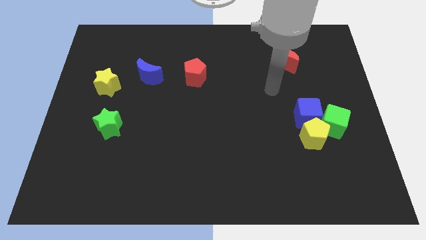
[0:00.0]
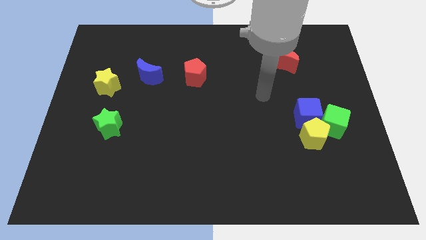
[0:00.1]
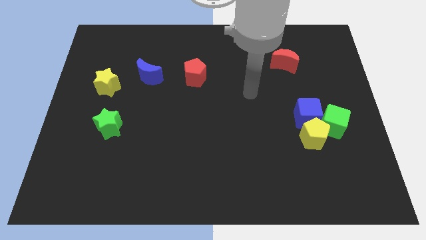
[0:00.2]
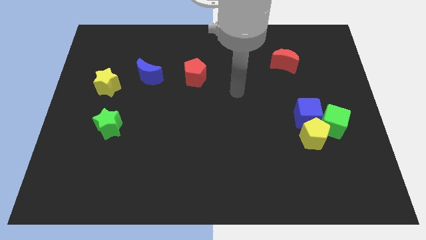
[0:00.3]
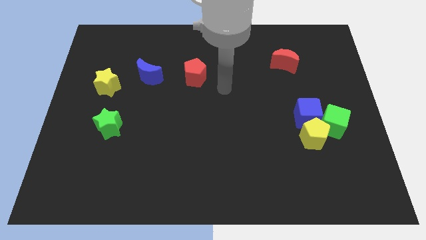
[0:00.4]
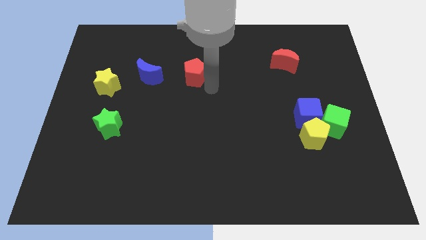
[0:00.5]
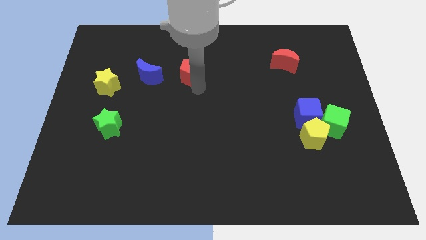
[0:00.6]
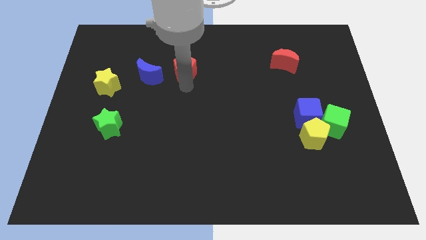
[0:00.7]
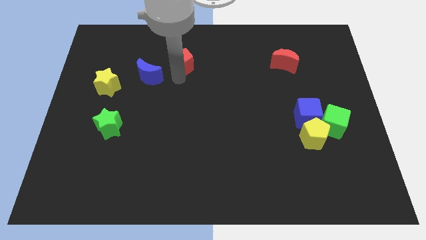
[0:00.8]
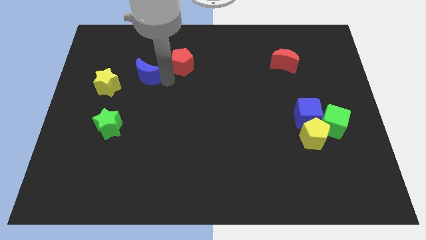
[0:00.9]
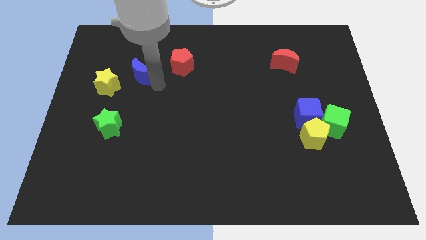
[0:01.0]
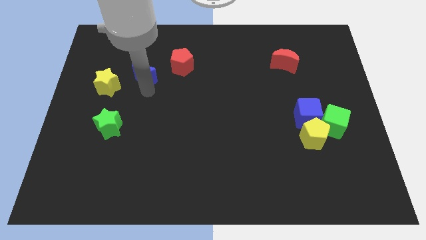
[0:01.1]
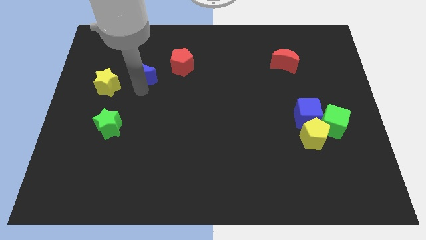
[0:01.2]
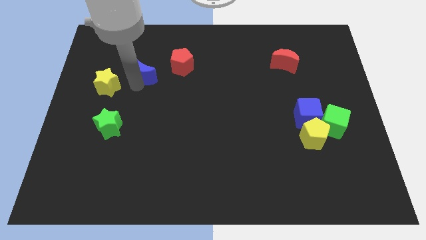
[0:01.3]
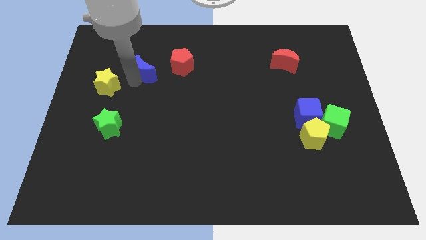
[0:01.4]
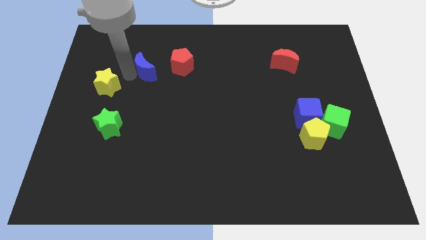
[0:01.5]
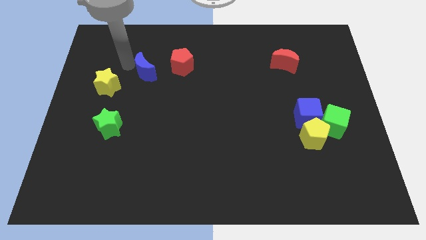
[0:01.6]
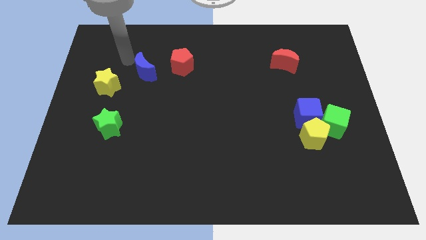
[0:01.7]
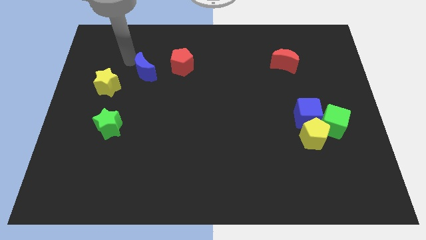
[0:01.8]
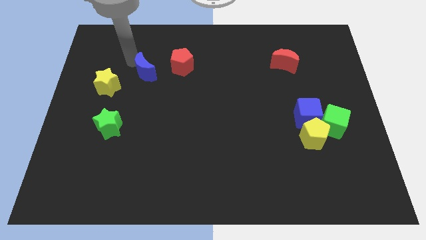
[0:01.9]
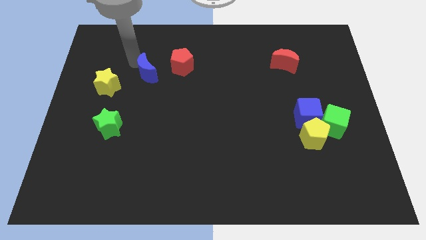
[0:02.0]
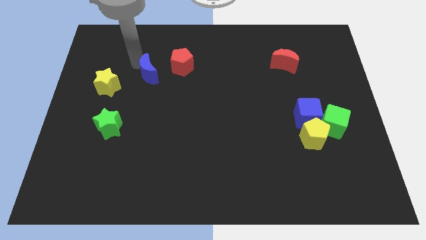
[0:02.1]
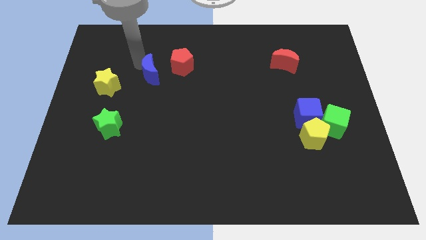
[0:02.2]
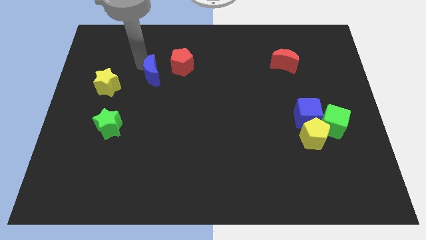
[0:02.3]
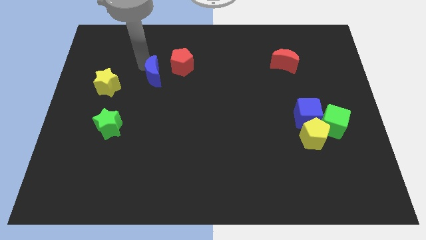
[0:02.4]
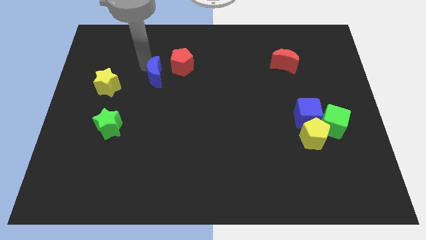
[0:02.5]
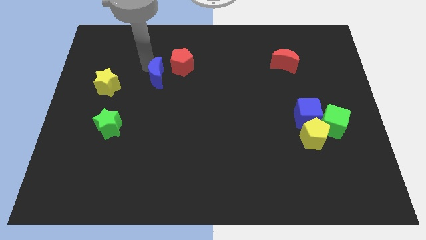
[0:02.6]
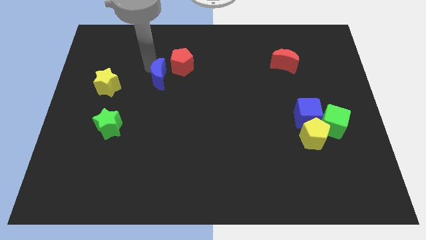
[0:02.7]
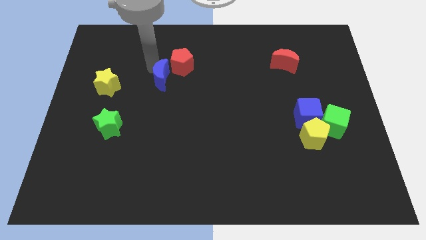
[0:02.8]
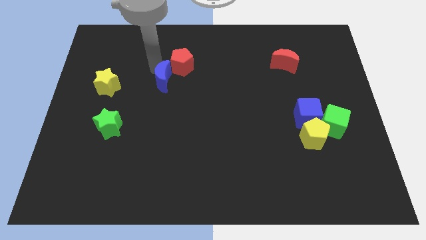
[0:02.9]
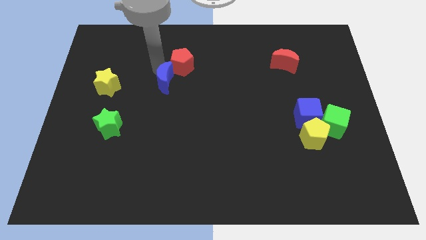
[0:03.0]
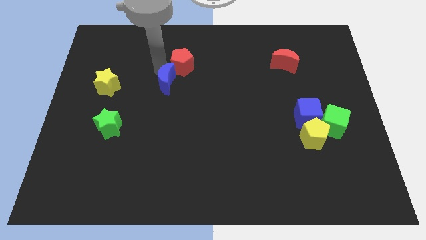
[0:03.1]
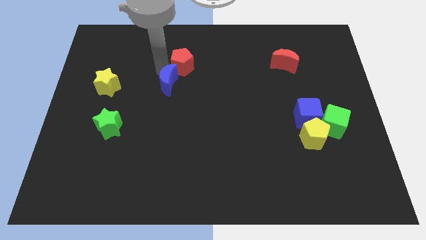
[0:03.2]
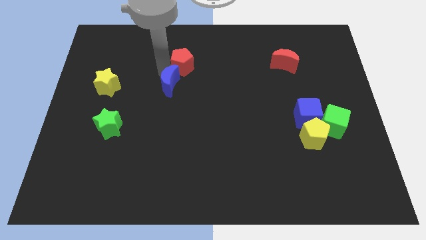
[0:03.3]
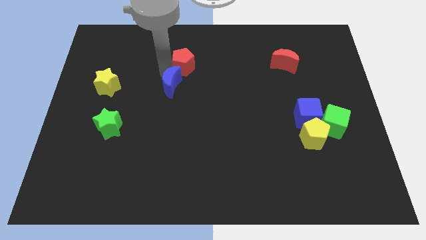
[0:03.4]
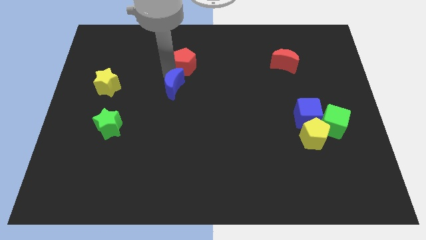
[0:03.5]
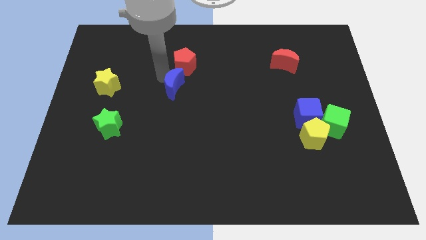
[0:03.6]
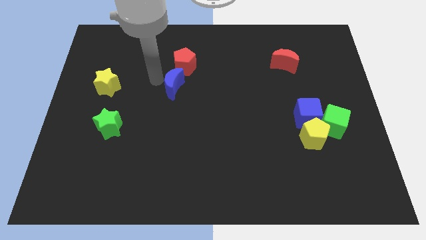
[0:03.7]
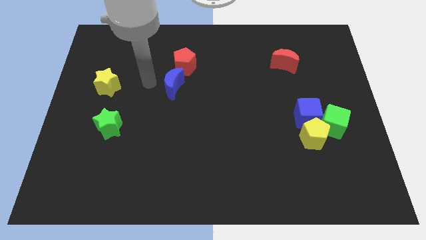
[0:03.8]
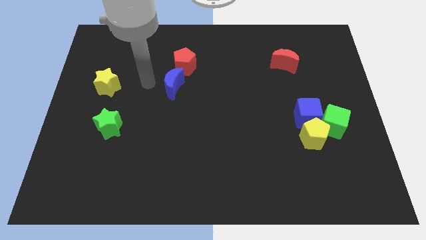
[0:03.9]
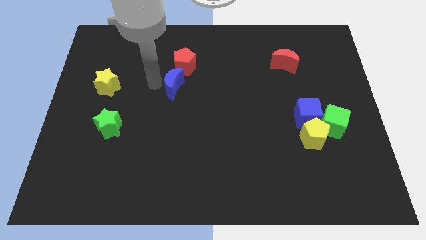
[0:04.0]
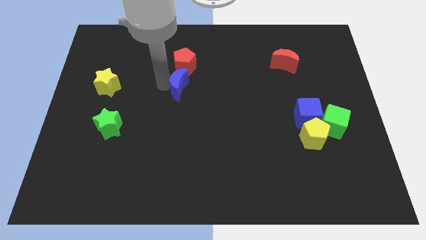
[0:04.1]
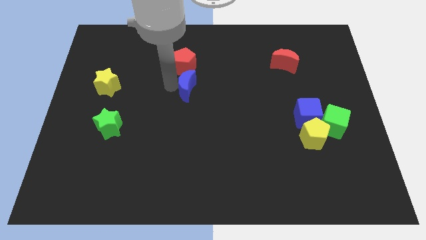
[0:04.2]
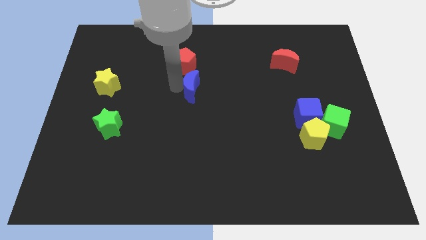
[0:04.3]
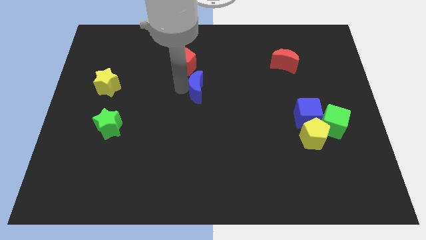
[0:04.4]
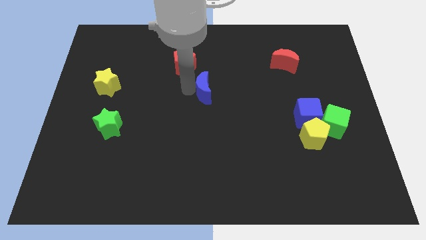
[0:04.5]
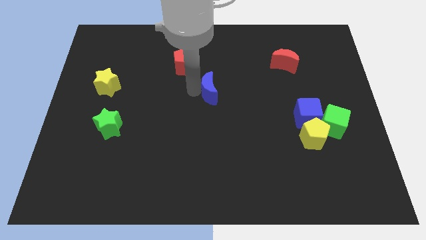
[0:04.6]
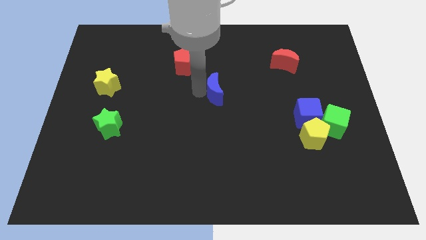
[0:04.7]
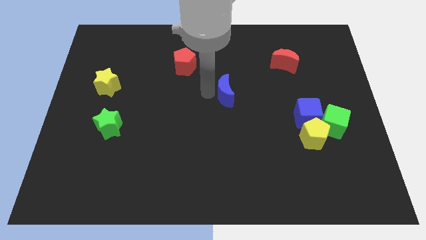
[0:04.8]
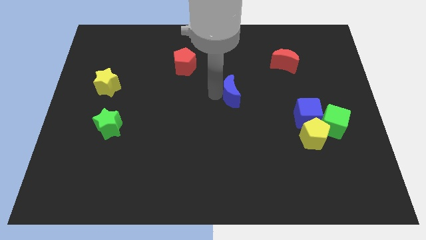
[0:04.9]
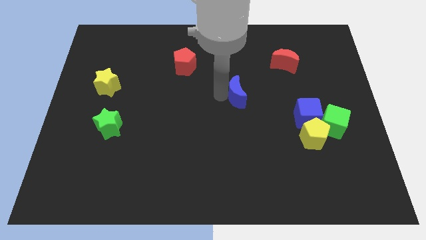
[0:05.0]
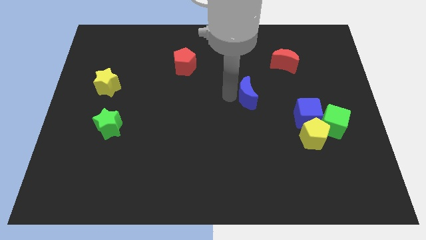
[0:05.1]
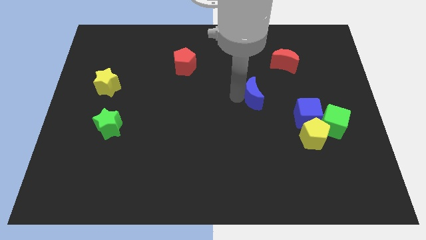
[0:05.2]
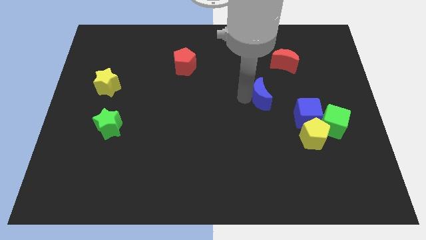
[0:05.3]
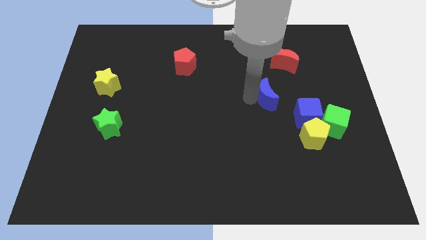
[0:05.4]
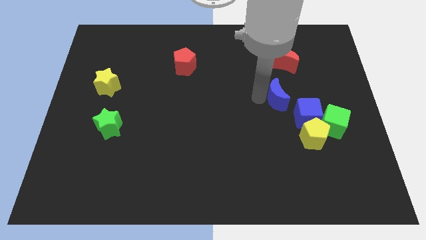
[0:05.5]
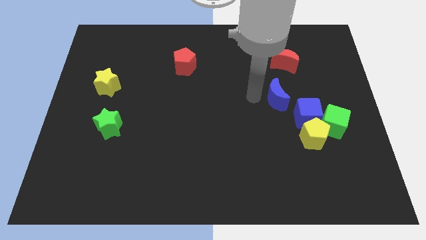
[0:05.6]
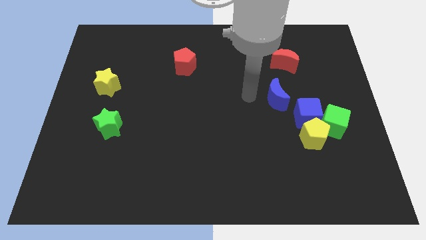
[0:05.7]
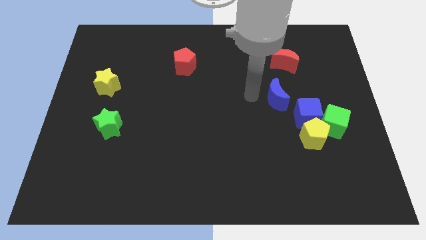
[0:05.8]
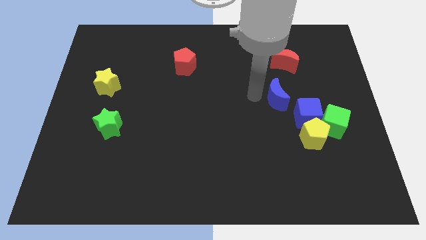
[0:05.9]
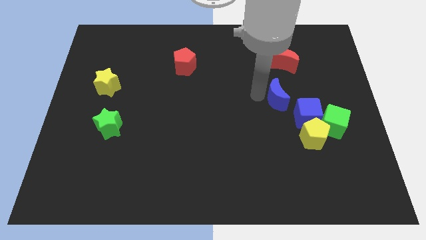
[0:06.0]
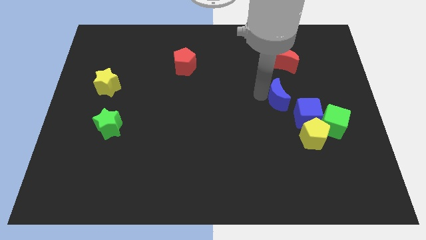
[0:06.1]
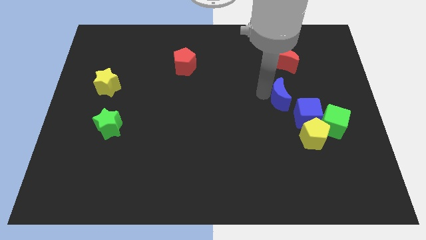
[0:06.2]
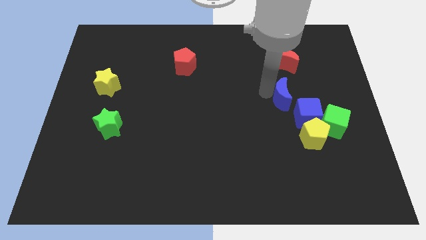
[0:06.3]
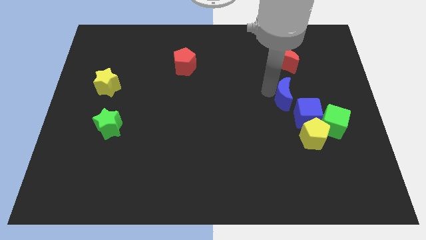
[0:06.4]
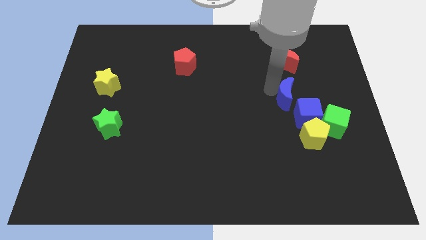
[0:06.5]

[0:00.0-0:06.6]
move the blue moon above the yellow pentagon

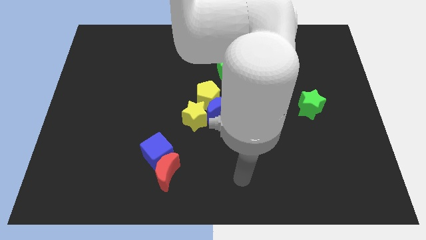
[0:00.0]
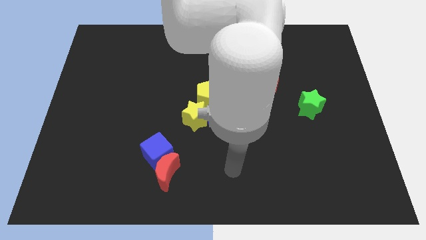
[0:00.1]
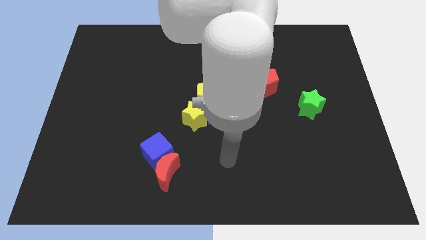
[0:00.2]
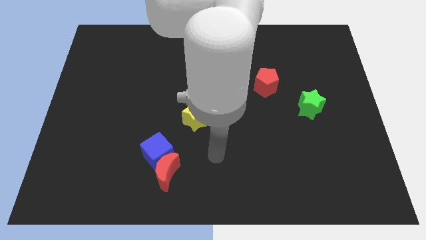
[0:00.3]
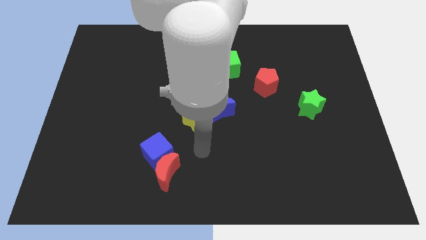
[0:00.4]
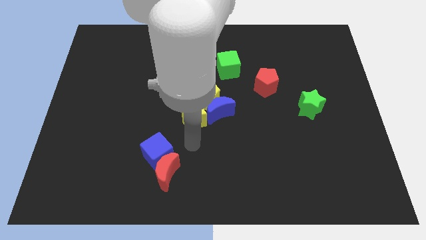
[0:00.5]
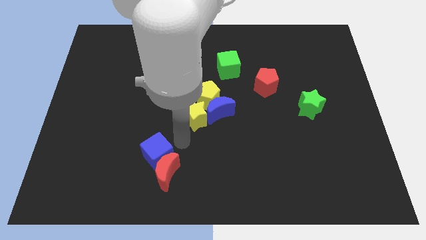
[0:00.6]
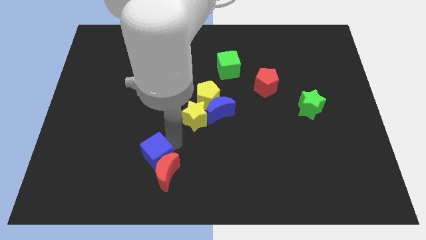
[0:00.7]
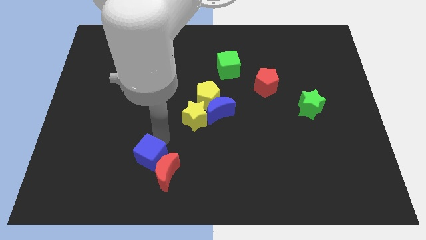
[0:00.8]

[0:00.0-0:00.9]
slide the red moon to the right of the blue cube

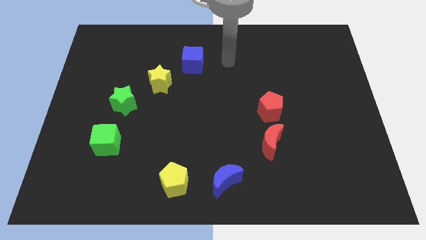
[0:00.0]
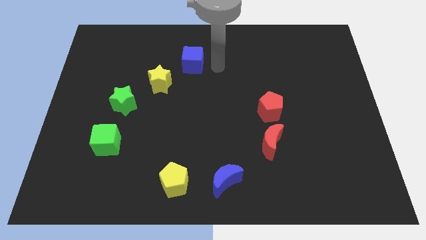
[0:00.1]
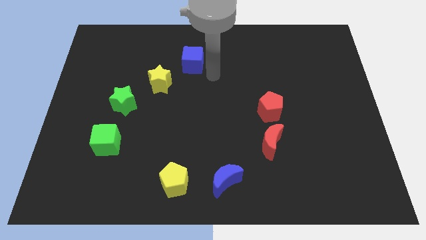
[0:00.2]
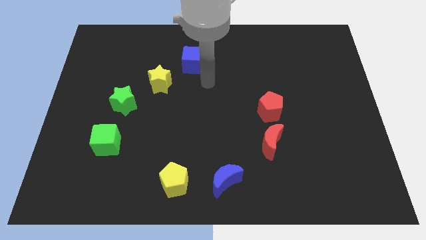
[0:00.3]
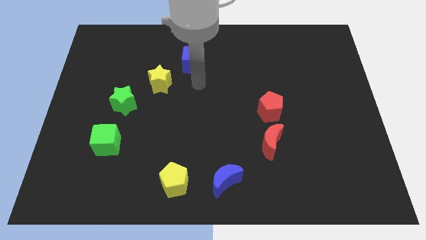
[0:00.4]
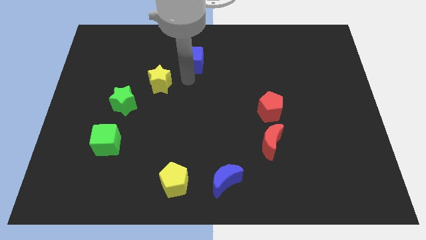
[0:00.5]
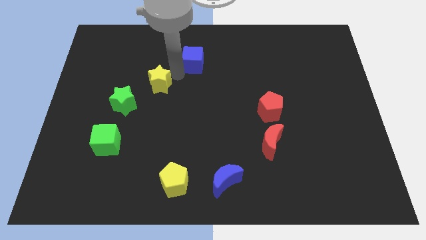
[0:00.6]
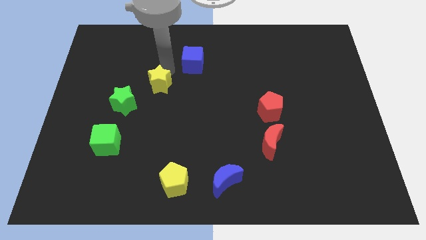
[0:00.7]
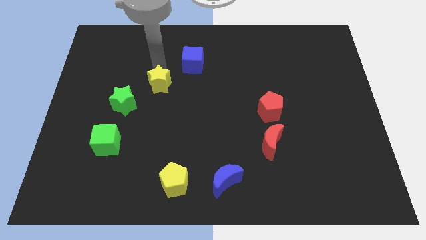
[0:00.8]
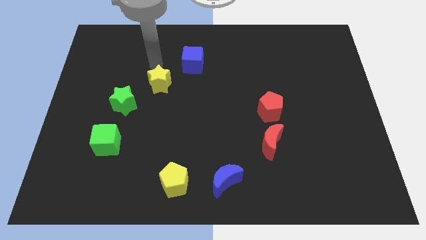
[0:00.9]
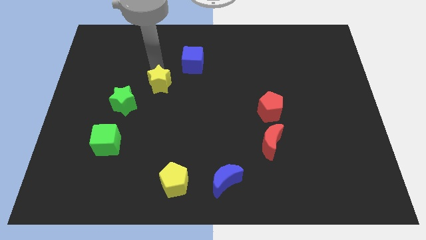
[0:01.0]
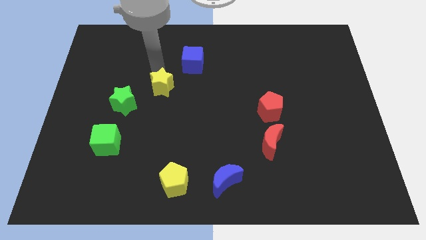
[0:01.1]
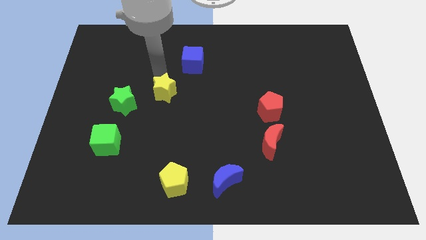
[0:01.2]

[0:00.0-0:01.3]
slide the yellow star to the right of the green star
